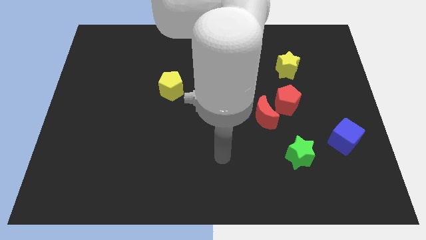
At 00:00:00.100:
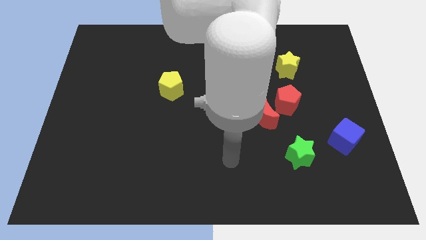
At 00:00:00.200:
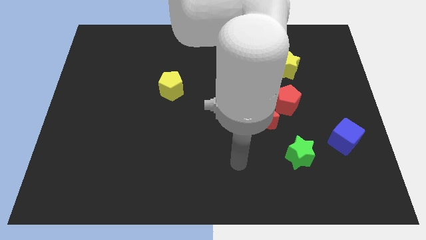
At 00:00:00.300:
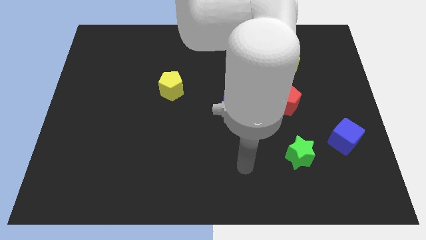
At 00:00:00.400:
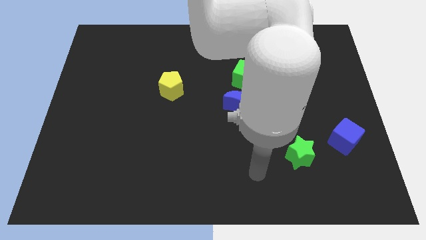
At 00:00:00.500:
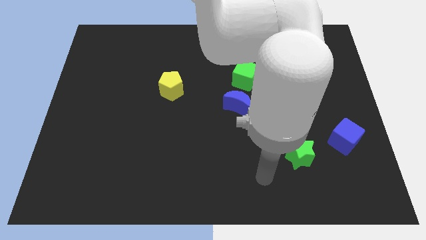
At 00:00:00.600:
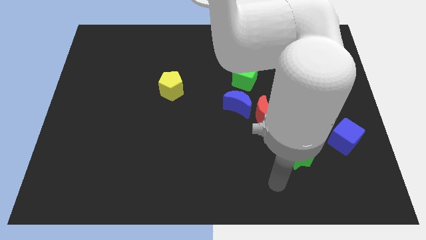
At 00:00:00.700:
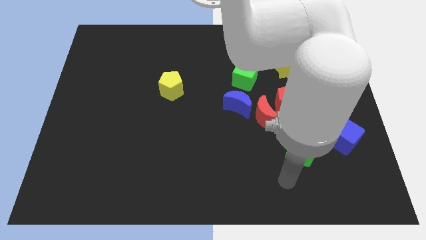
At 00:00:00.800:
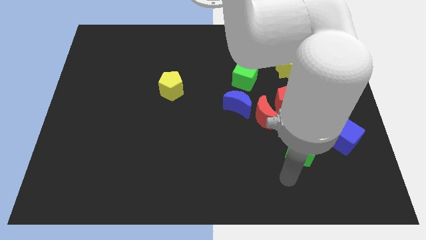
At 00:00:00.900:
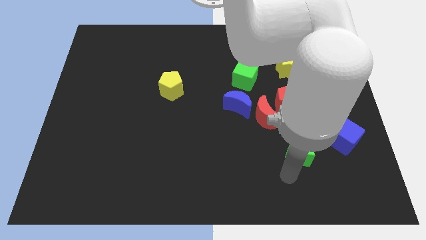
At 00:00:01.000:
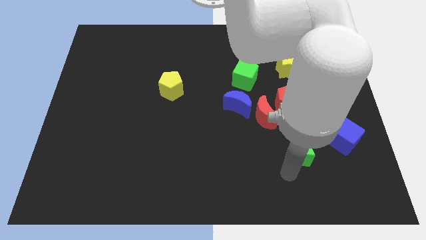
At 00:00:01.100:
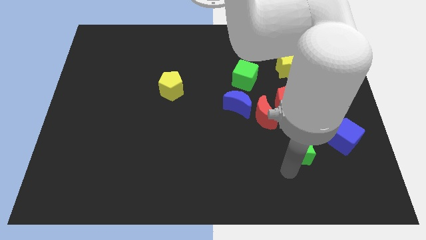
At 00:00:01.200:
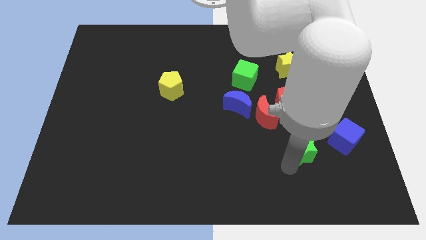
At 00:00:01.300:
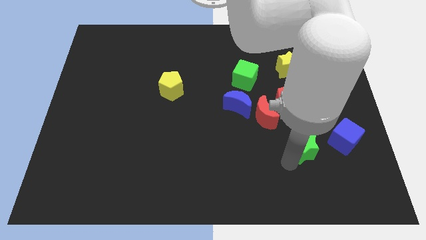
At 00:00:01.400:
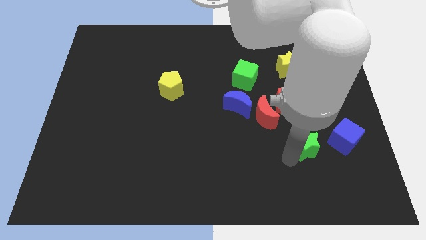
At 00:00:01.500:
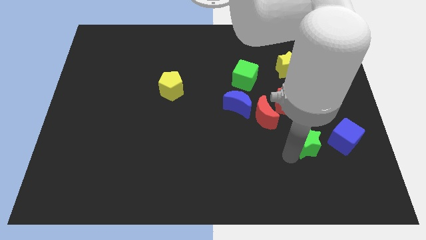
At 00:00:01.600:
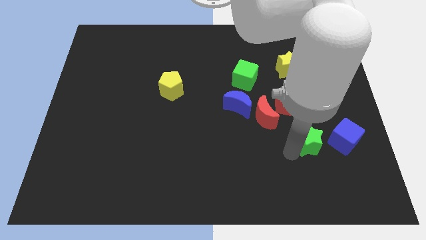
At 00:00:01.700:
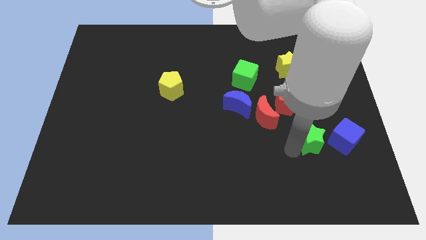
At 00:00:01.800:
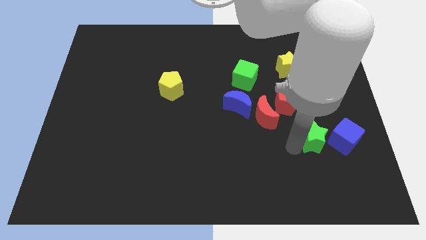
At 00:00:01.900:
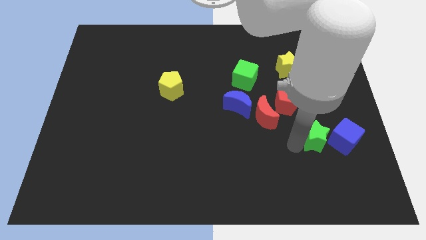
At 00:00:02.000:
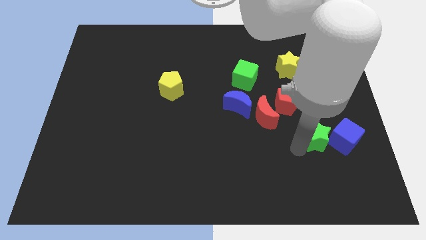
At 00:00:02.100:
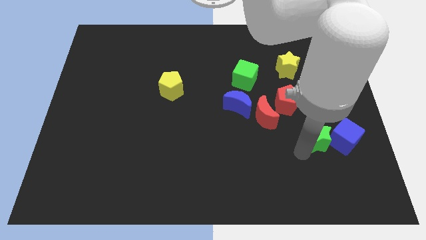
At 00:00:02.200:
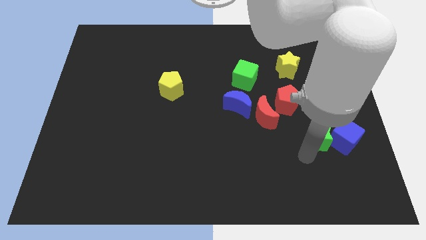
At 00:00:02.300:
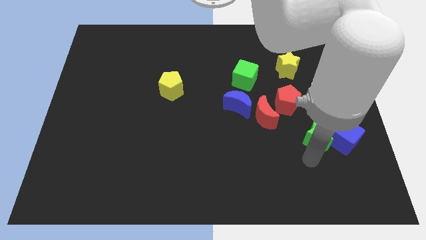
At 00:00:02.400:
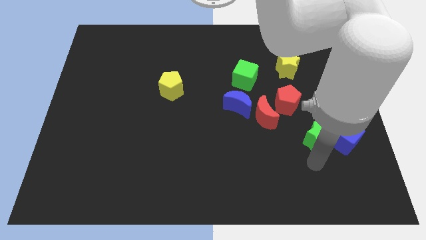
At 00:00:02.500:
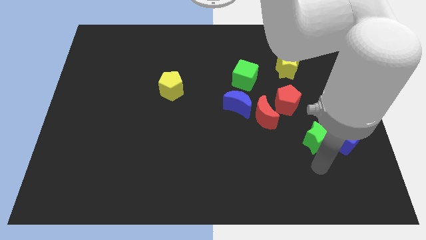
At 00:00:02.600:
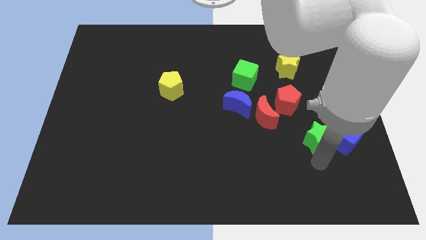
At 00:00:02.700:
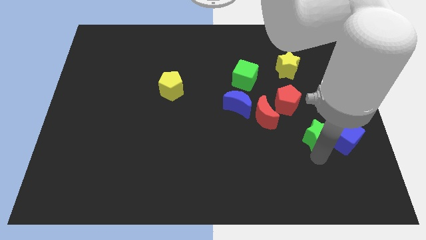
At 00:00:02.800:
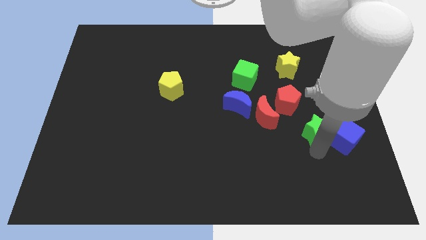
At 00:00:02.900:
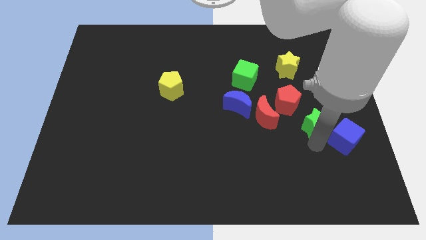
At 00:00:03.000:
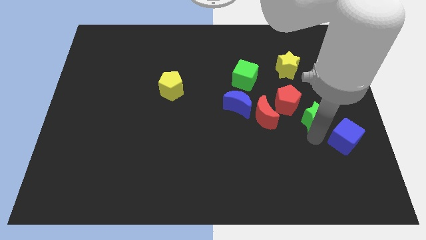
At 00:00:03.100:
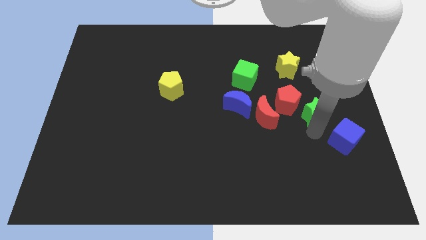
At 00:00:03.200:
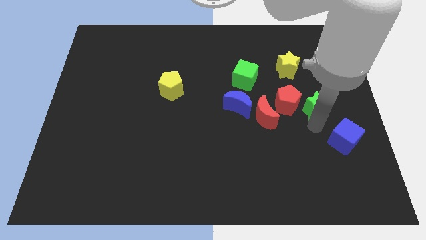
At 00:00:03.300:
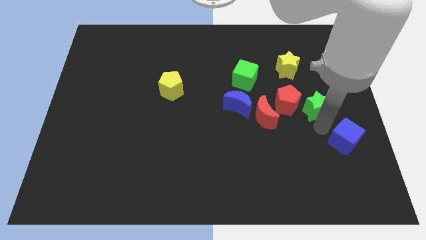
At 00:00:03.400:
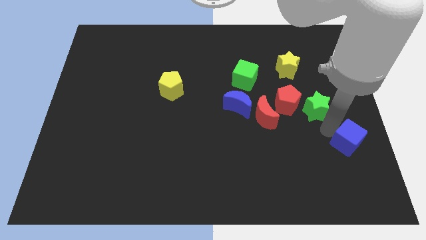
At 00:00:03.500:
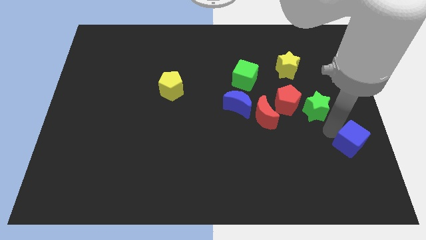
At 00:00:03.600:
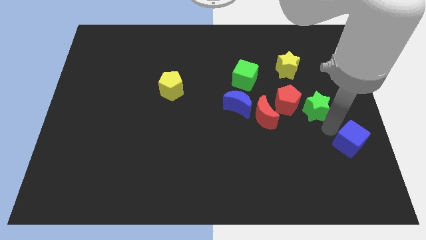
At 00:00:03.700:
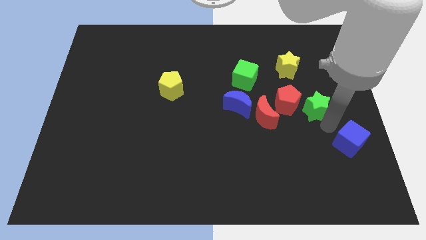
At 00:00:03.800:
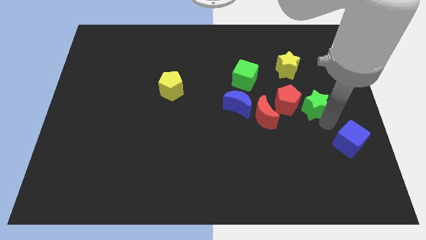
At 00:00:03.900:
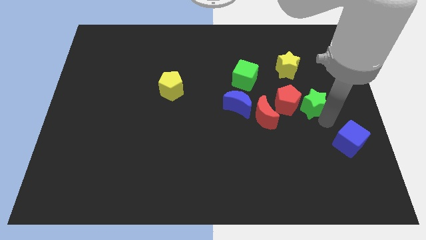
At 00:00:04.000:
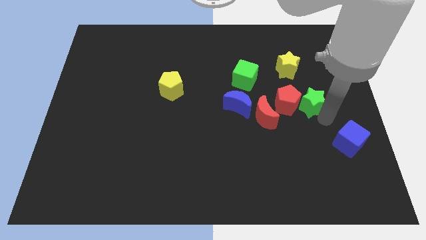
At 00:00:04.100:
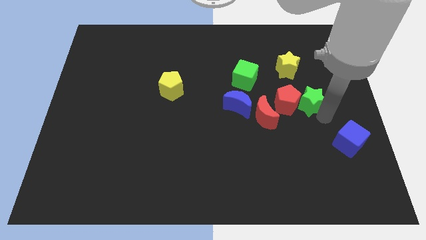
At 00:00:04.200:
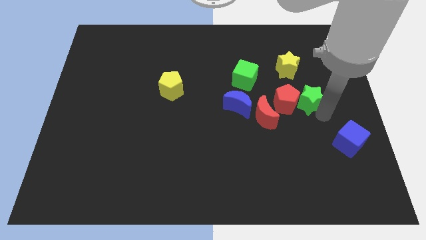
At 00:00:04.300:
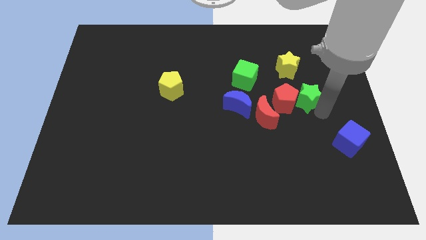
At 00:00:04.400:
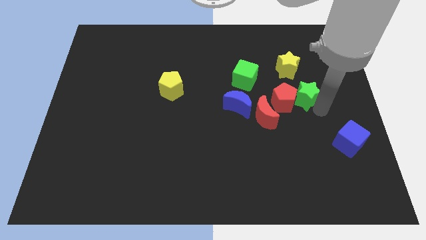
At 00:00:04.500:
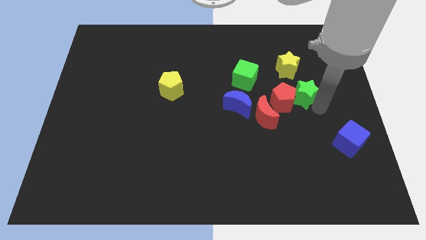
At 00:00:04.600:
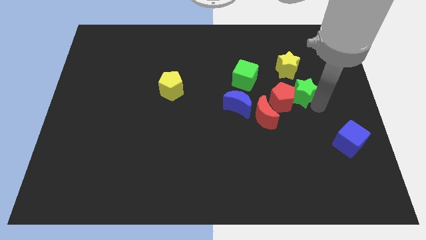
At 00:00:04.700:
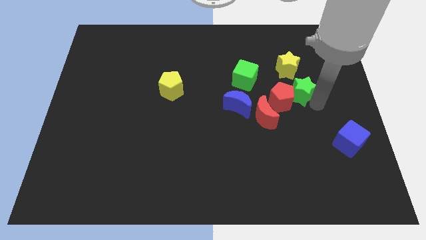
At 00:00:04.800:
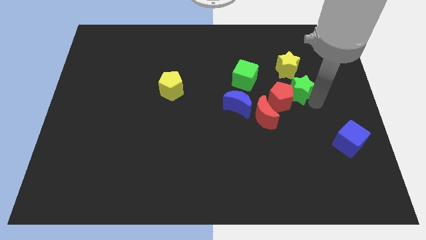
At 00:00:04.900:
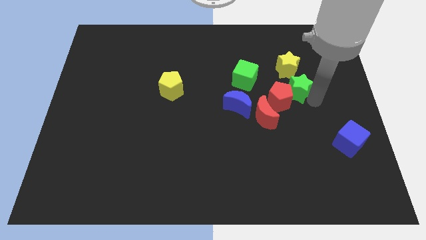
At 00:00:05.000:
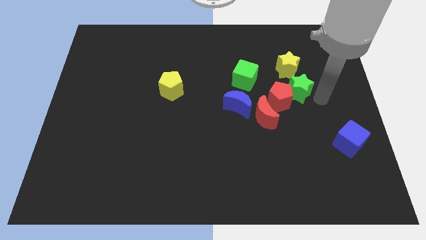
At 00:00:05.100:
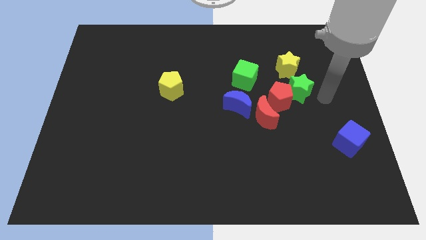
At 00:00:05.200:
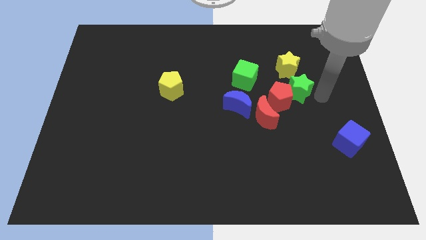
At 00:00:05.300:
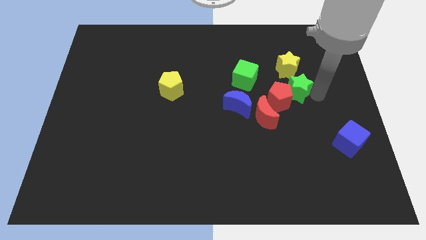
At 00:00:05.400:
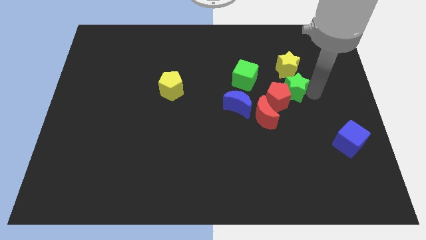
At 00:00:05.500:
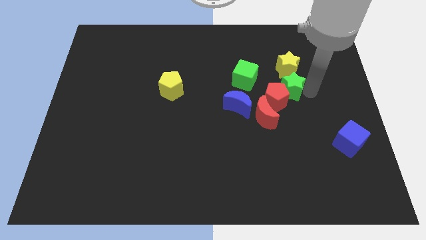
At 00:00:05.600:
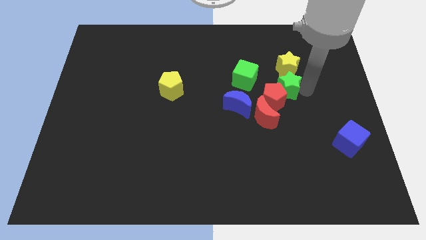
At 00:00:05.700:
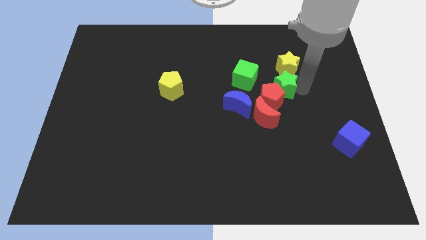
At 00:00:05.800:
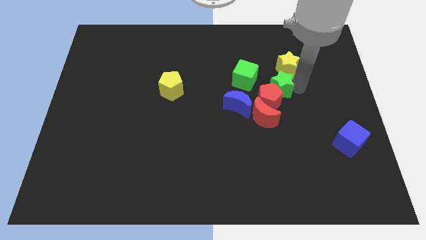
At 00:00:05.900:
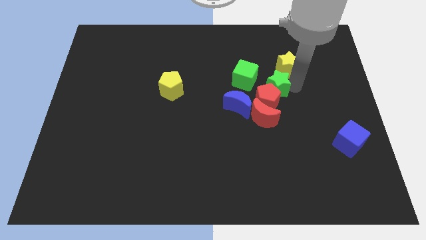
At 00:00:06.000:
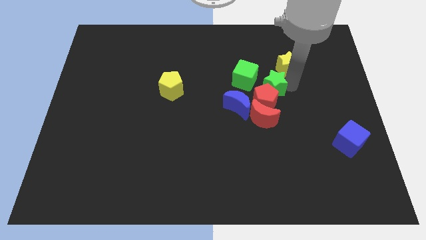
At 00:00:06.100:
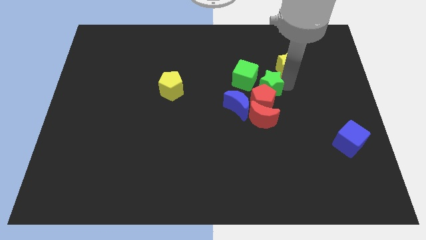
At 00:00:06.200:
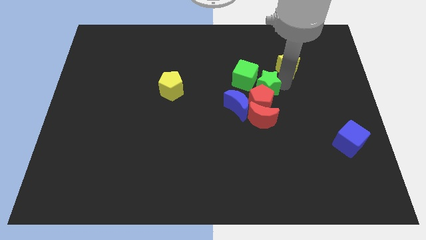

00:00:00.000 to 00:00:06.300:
push the green star to the top left of the red pentagon

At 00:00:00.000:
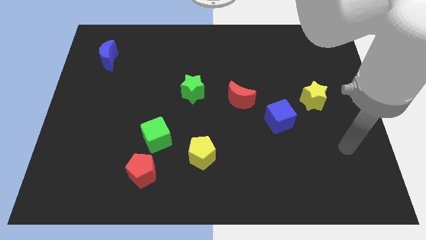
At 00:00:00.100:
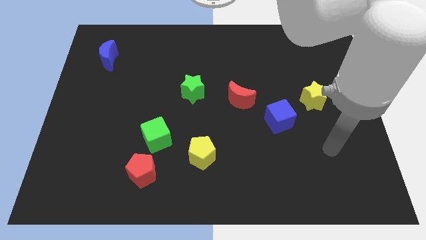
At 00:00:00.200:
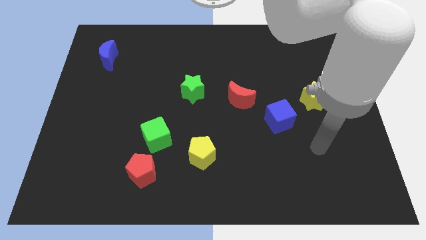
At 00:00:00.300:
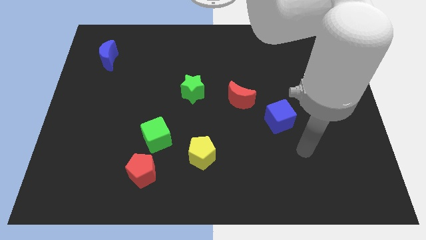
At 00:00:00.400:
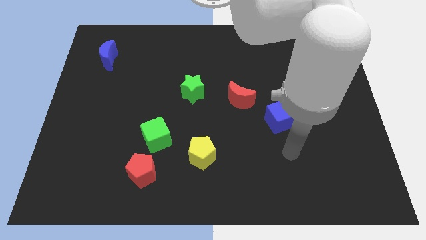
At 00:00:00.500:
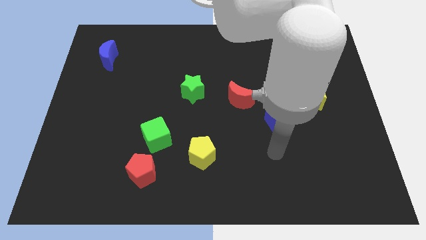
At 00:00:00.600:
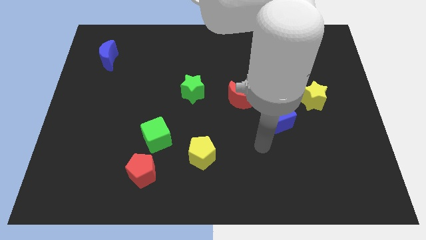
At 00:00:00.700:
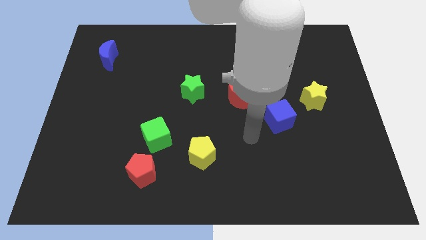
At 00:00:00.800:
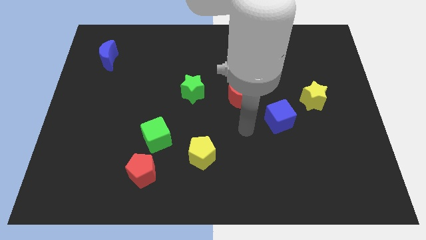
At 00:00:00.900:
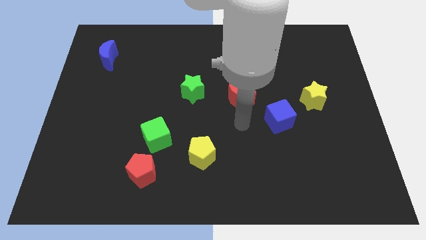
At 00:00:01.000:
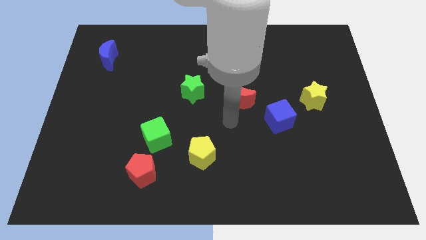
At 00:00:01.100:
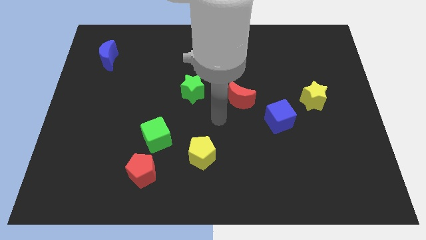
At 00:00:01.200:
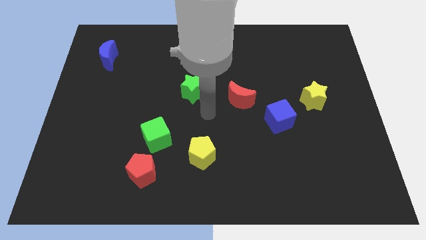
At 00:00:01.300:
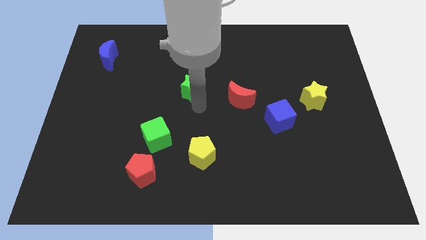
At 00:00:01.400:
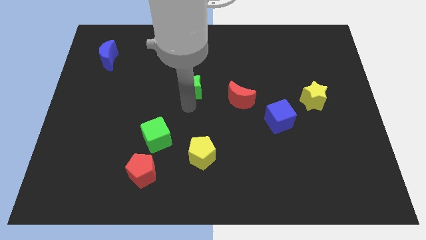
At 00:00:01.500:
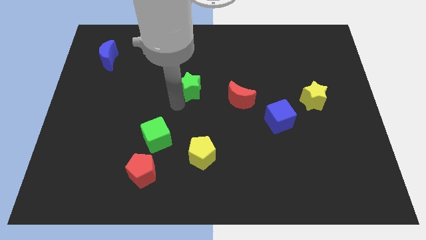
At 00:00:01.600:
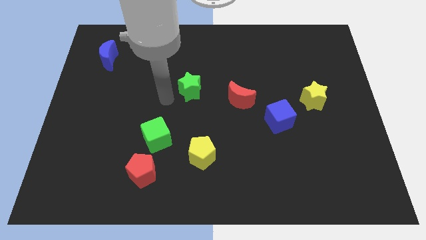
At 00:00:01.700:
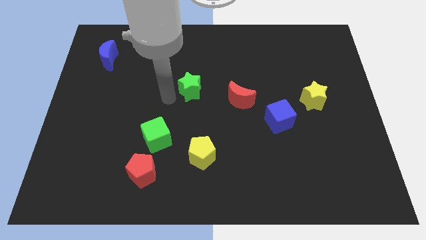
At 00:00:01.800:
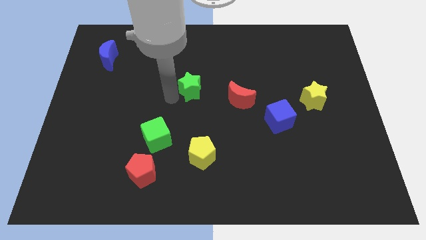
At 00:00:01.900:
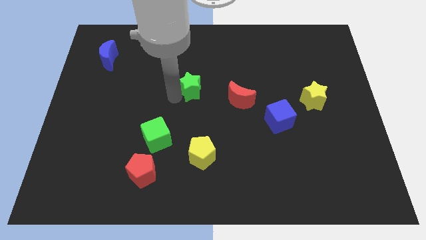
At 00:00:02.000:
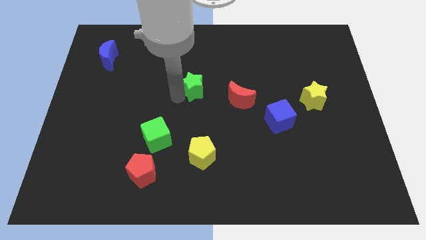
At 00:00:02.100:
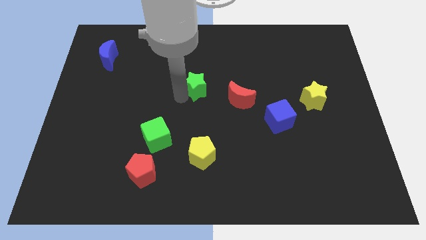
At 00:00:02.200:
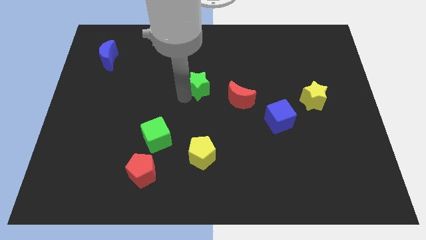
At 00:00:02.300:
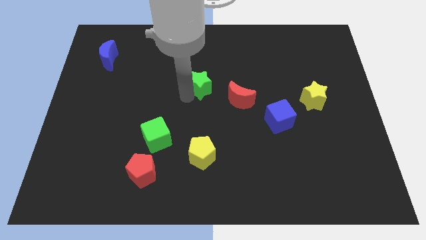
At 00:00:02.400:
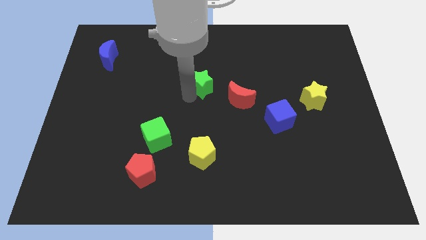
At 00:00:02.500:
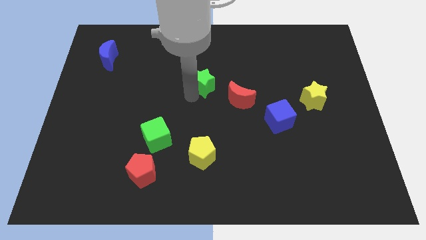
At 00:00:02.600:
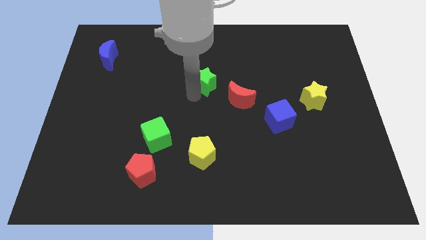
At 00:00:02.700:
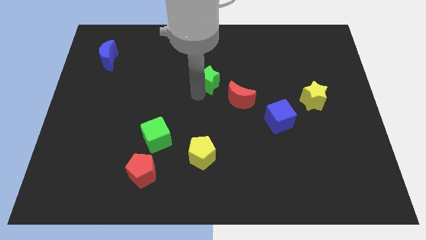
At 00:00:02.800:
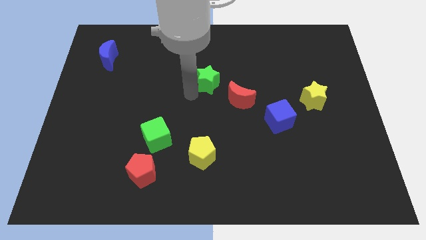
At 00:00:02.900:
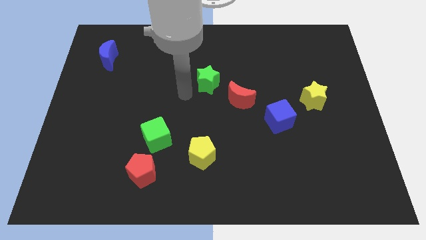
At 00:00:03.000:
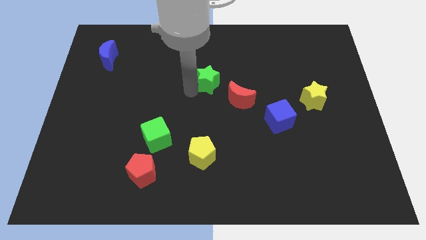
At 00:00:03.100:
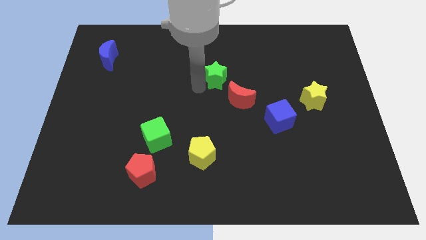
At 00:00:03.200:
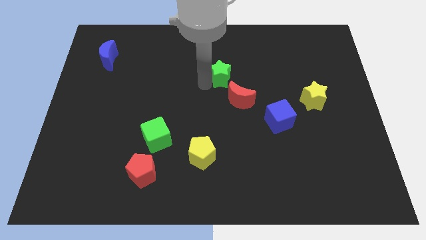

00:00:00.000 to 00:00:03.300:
push the green star to the top side of the red moon
